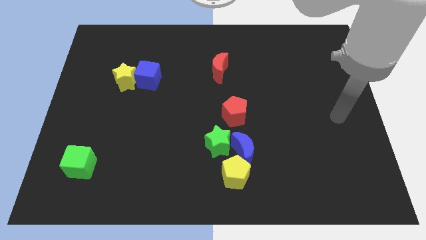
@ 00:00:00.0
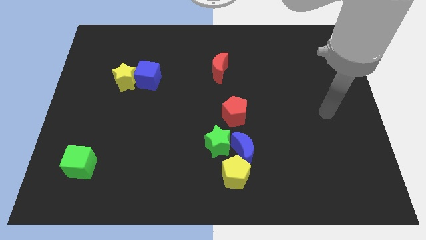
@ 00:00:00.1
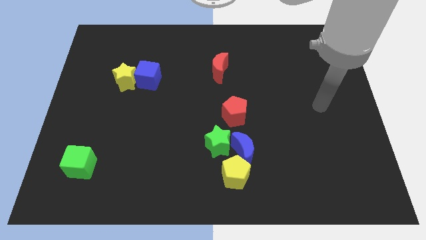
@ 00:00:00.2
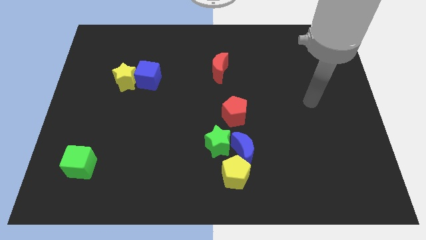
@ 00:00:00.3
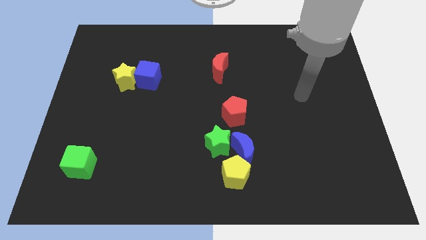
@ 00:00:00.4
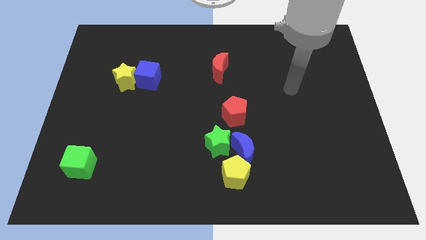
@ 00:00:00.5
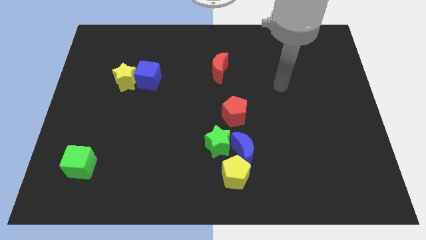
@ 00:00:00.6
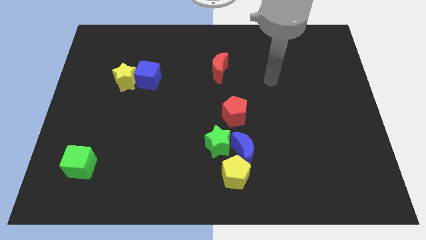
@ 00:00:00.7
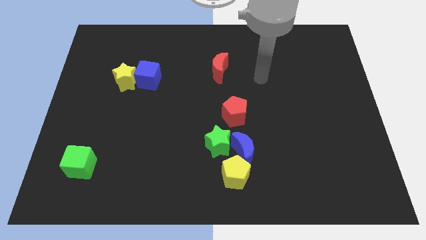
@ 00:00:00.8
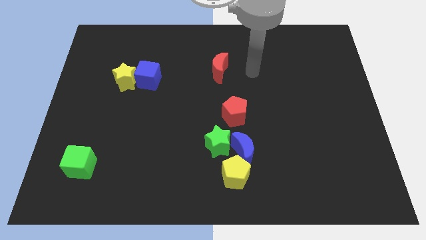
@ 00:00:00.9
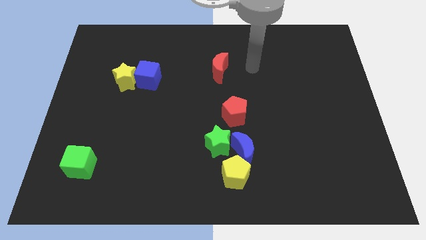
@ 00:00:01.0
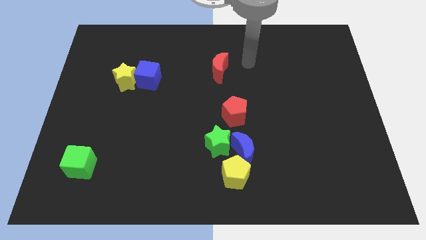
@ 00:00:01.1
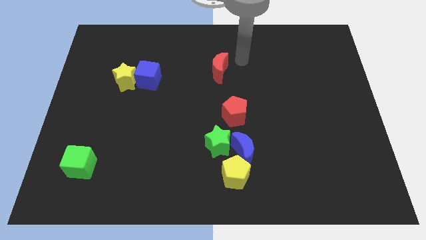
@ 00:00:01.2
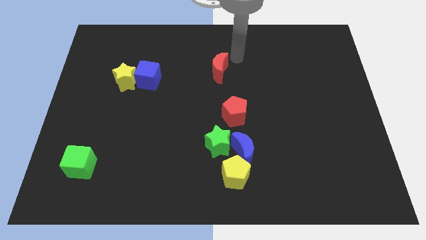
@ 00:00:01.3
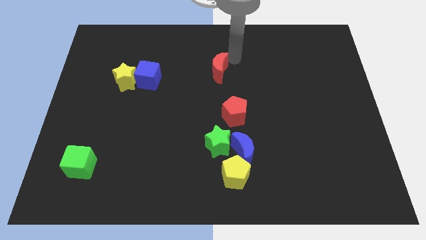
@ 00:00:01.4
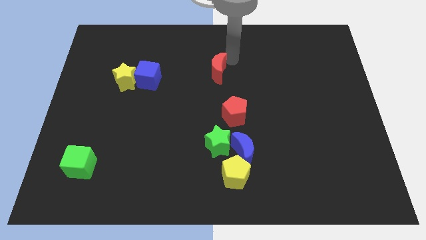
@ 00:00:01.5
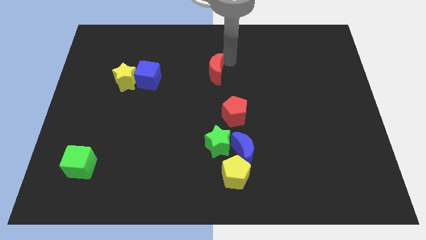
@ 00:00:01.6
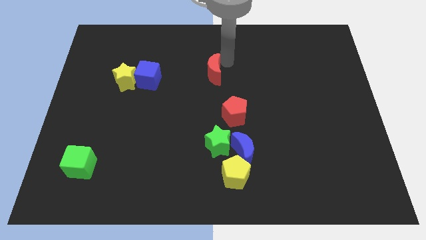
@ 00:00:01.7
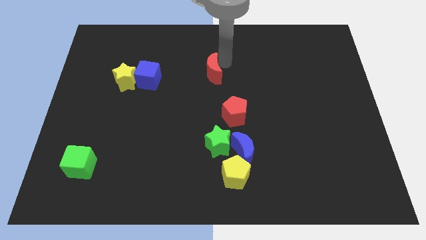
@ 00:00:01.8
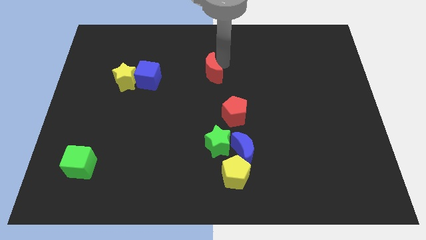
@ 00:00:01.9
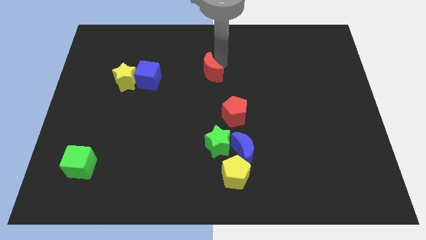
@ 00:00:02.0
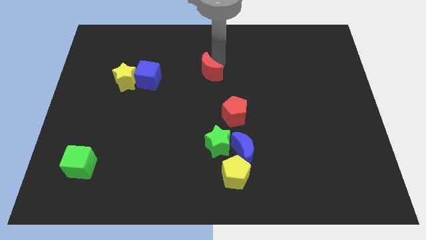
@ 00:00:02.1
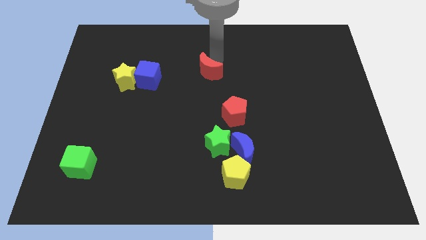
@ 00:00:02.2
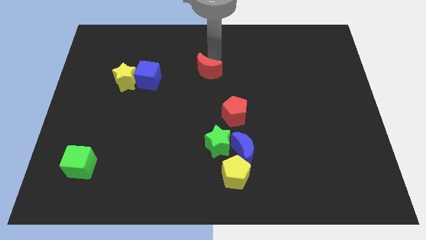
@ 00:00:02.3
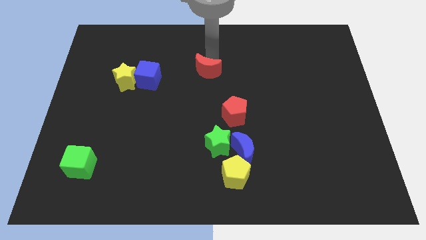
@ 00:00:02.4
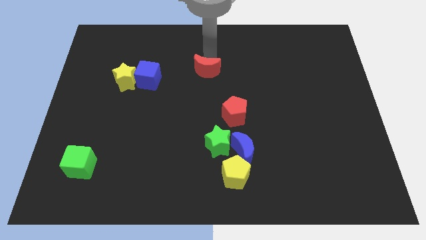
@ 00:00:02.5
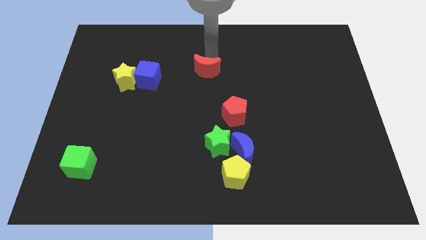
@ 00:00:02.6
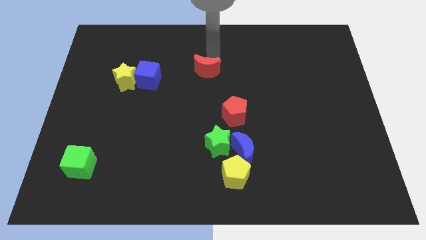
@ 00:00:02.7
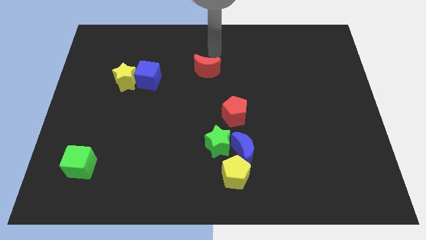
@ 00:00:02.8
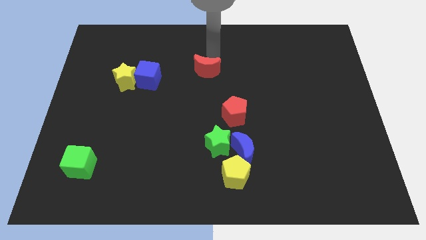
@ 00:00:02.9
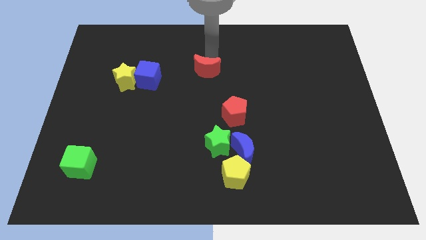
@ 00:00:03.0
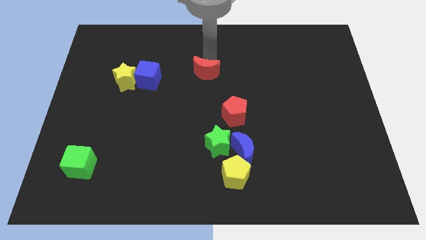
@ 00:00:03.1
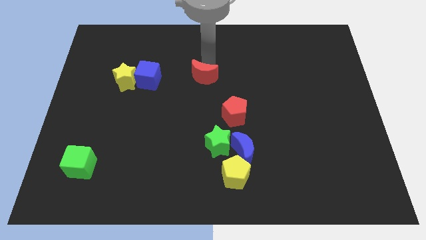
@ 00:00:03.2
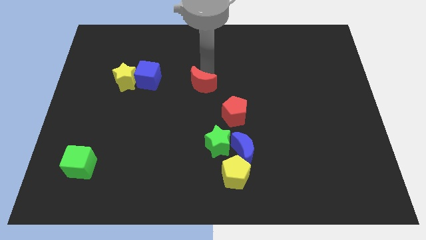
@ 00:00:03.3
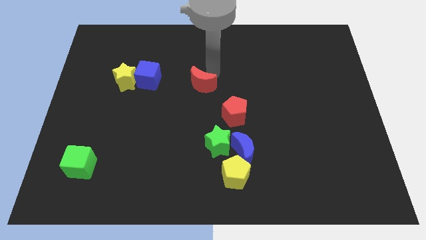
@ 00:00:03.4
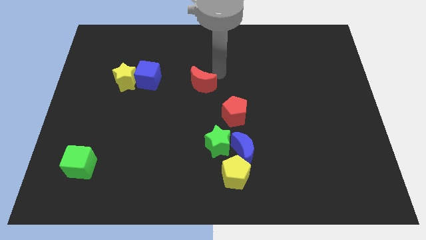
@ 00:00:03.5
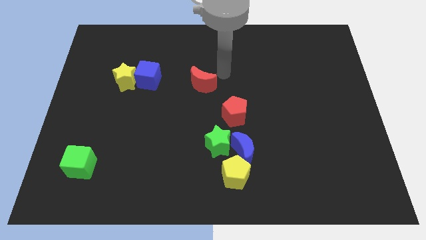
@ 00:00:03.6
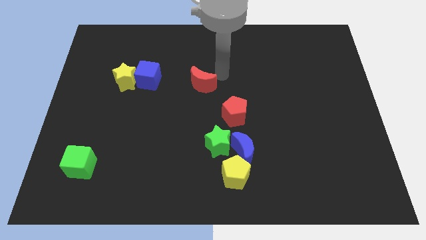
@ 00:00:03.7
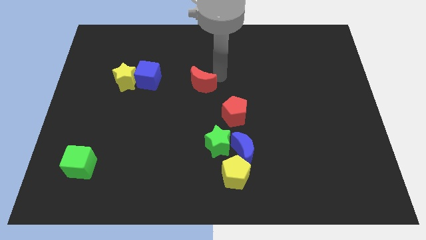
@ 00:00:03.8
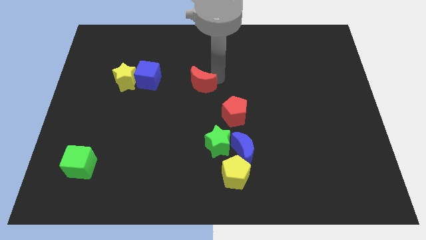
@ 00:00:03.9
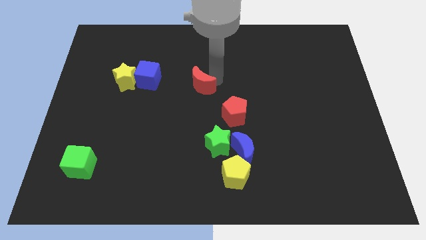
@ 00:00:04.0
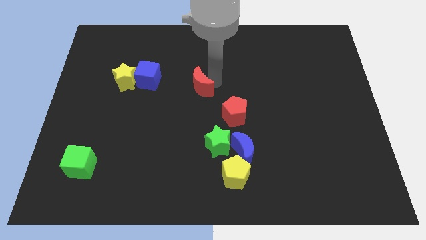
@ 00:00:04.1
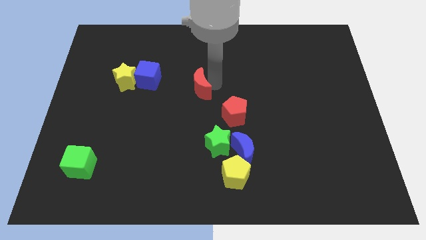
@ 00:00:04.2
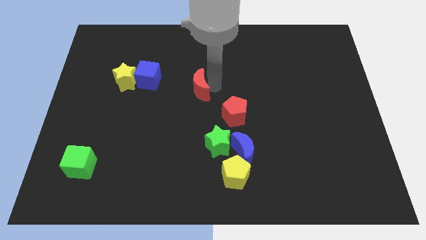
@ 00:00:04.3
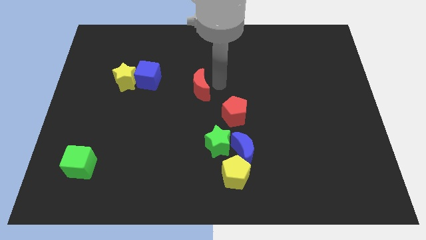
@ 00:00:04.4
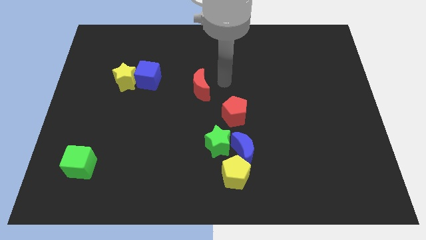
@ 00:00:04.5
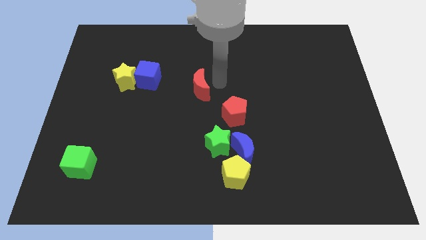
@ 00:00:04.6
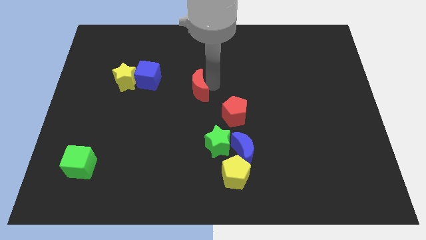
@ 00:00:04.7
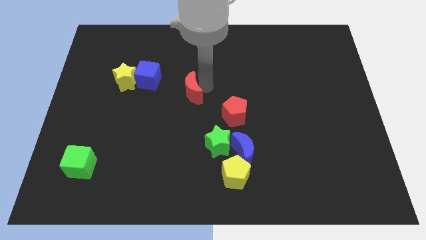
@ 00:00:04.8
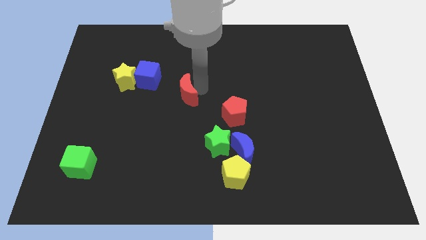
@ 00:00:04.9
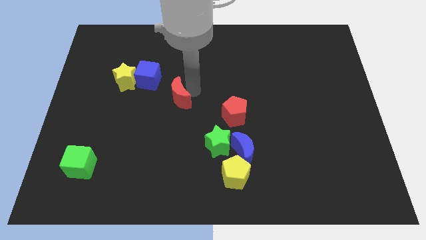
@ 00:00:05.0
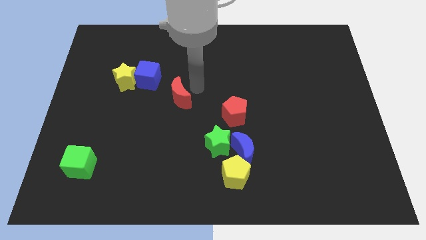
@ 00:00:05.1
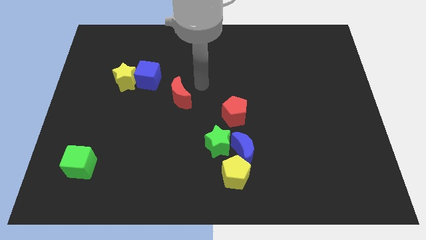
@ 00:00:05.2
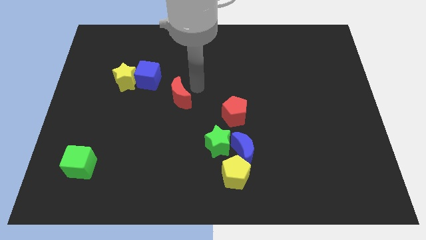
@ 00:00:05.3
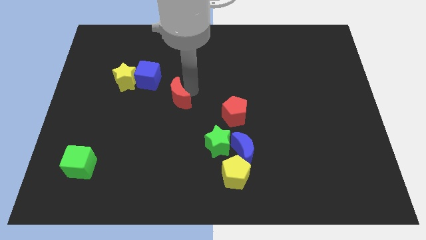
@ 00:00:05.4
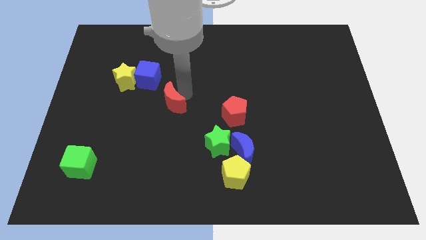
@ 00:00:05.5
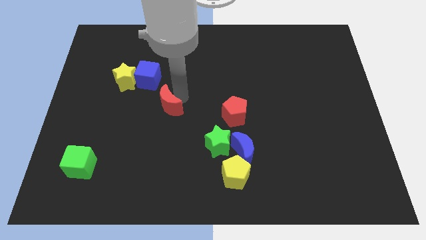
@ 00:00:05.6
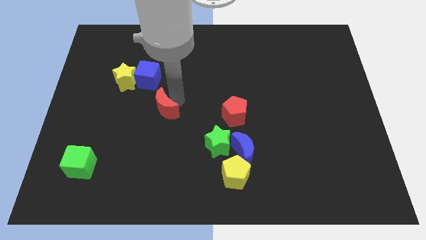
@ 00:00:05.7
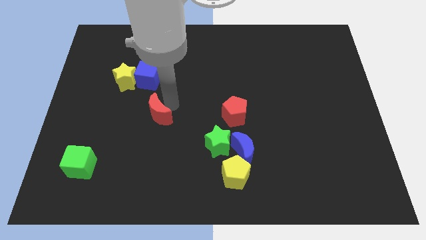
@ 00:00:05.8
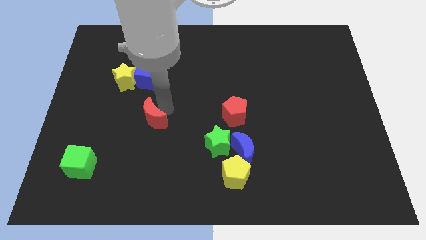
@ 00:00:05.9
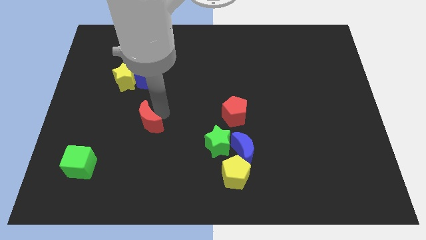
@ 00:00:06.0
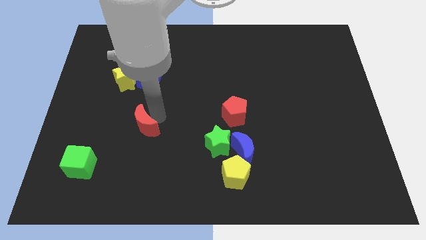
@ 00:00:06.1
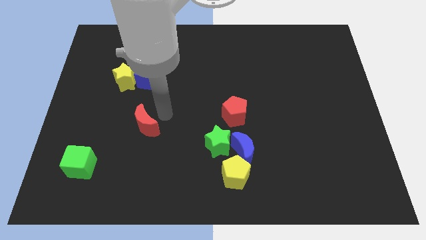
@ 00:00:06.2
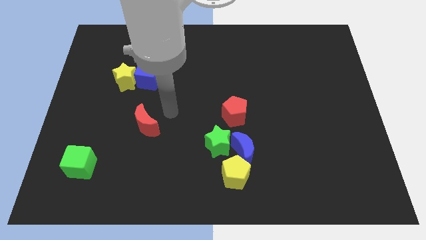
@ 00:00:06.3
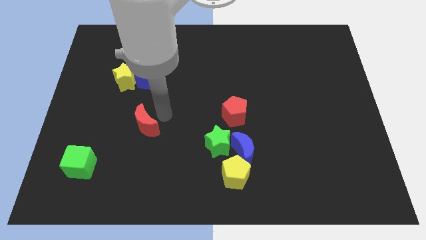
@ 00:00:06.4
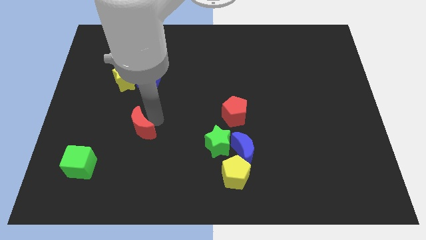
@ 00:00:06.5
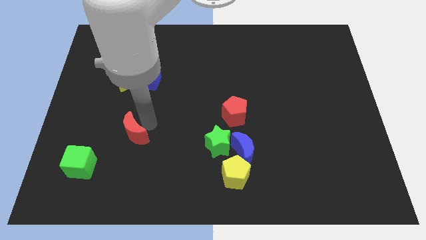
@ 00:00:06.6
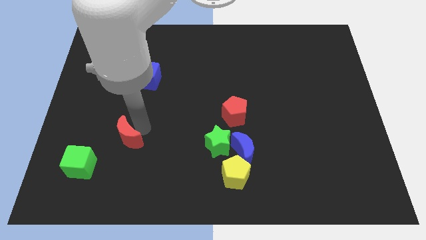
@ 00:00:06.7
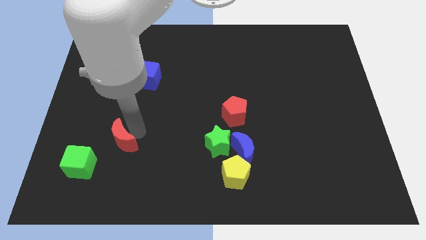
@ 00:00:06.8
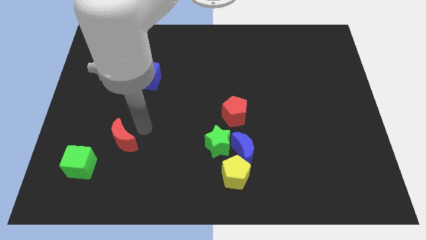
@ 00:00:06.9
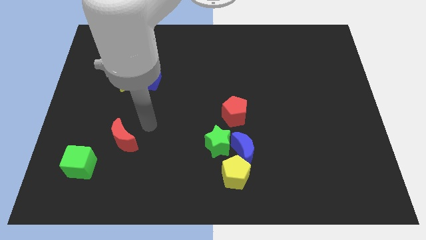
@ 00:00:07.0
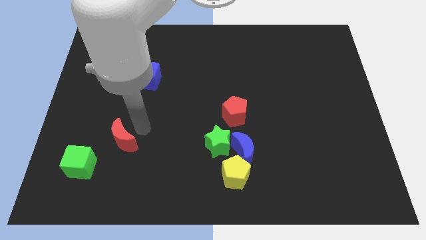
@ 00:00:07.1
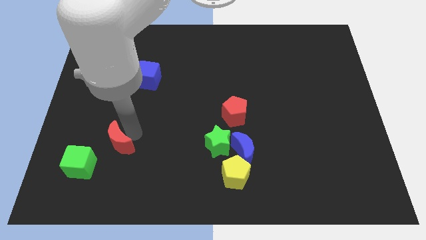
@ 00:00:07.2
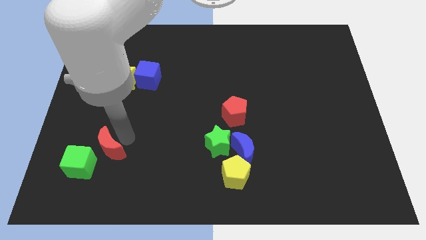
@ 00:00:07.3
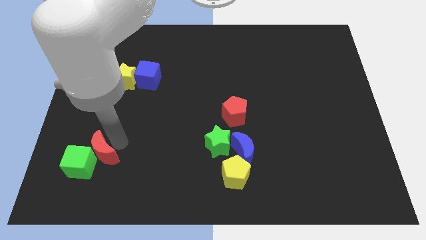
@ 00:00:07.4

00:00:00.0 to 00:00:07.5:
slide the red moon next to the green cube
